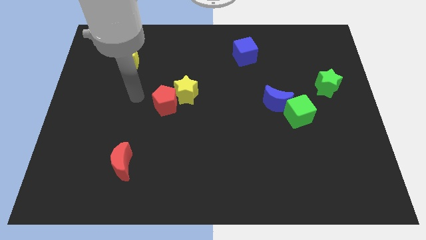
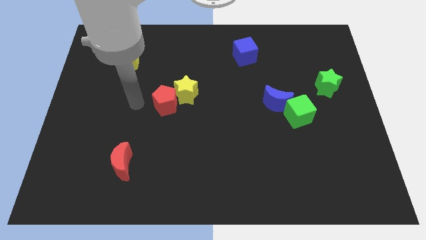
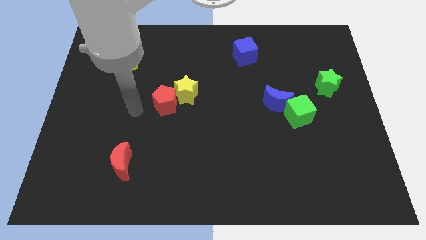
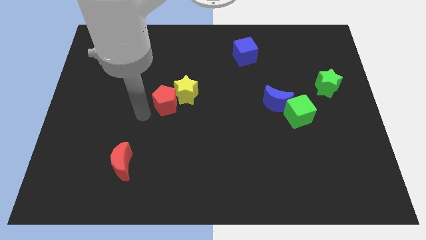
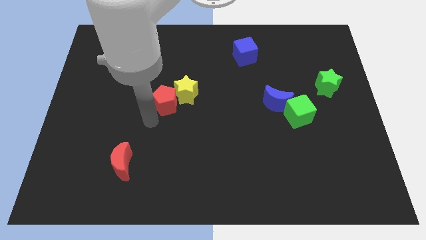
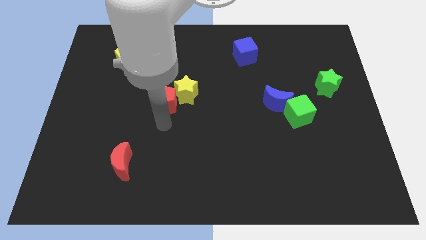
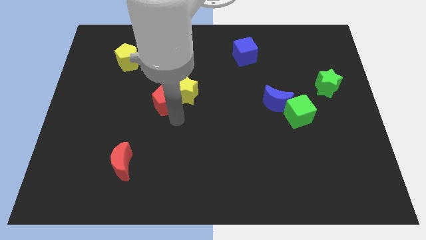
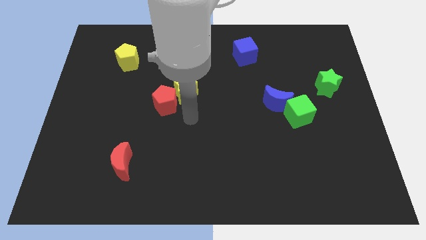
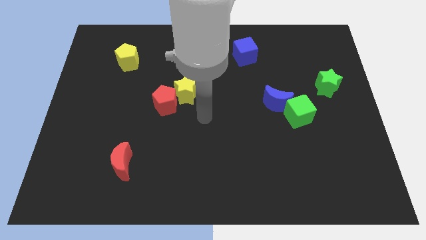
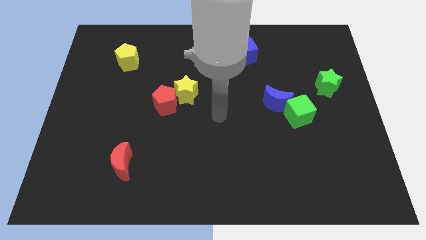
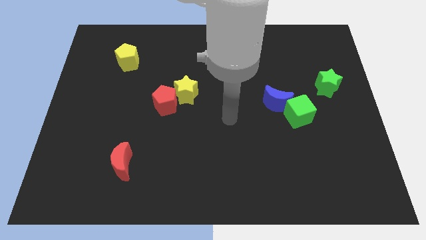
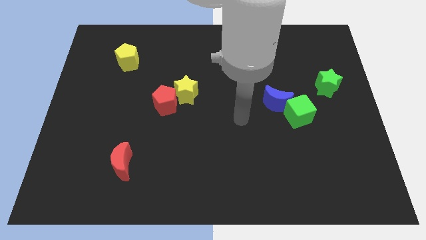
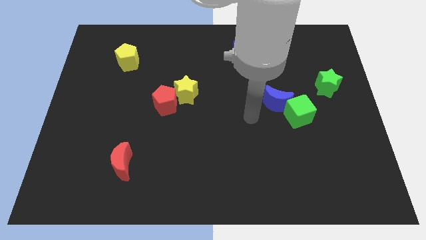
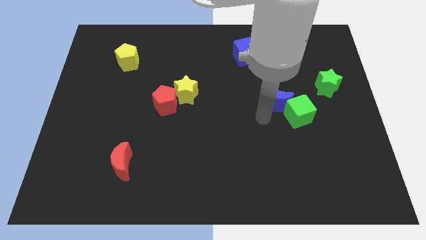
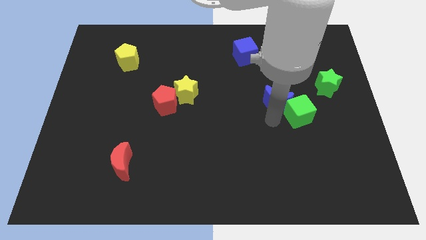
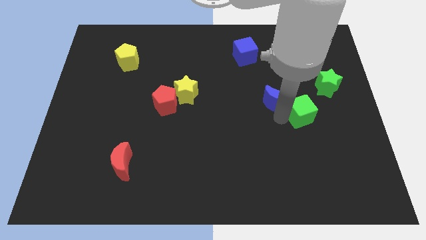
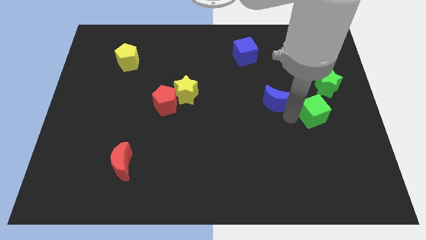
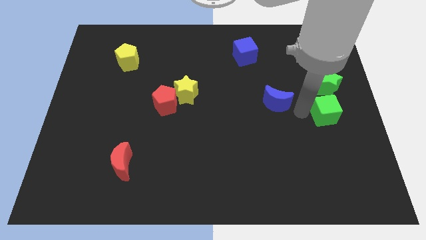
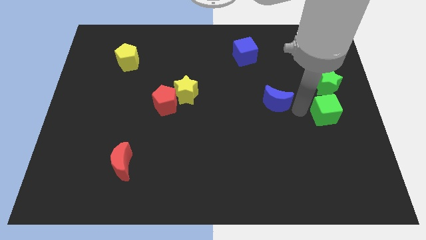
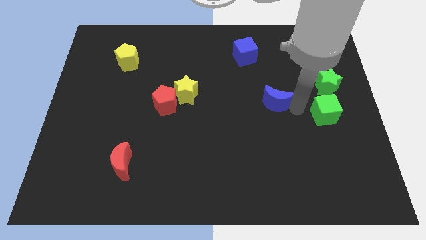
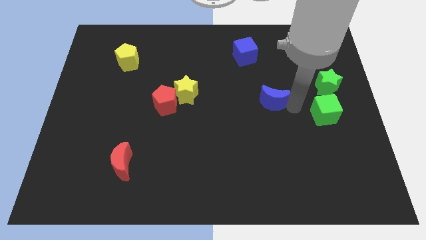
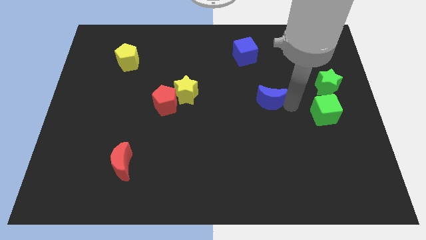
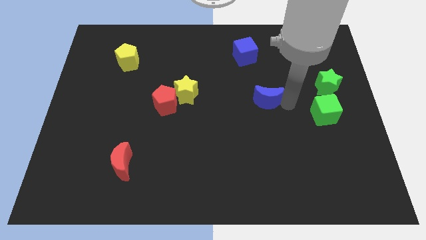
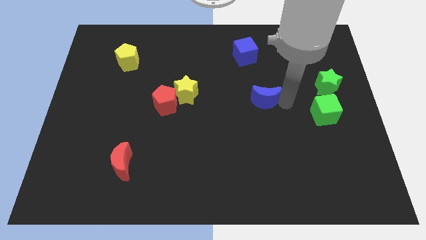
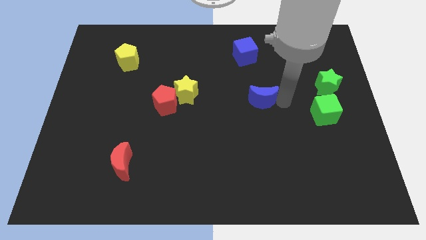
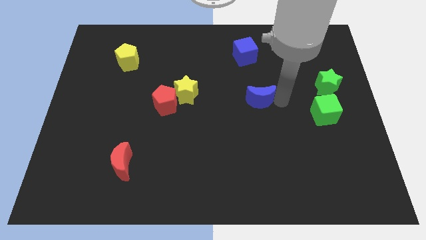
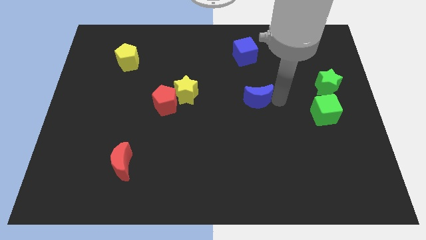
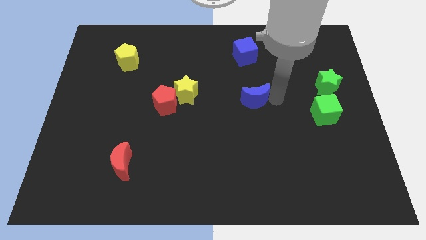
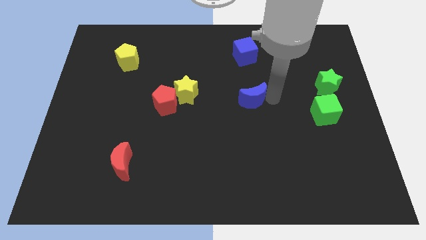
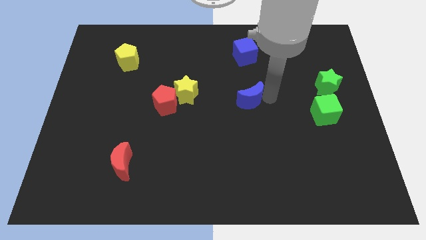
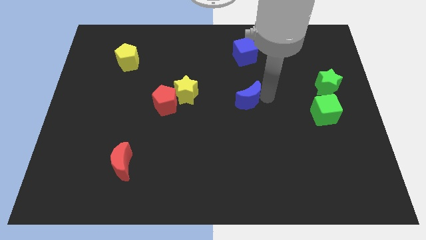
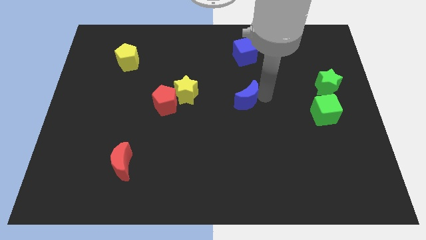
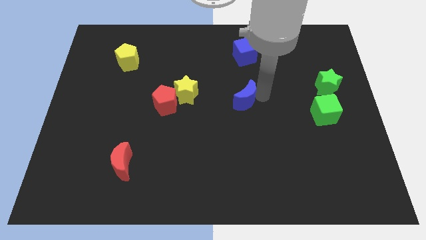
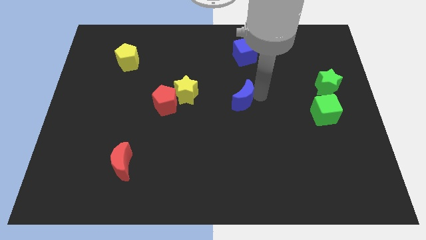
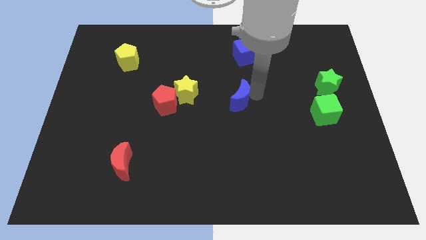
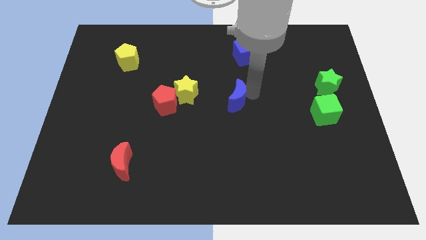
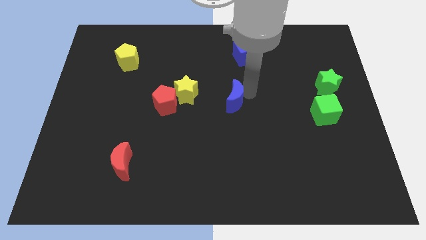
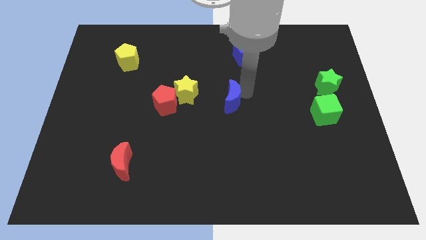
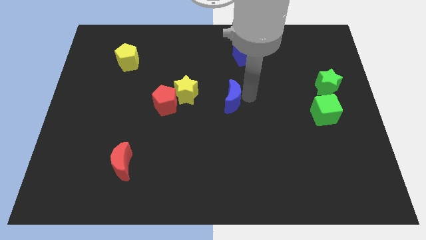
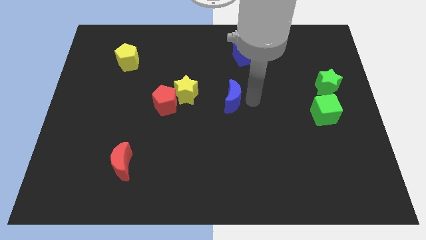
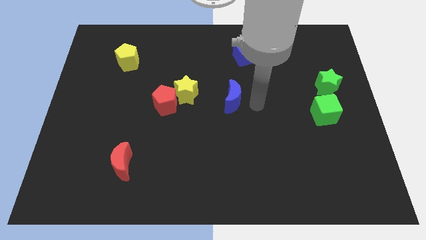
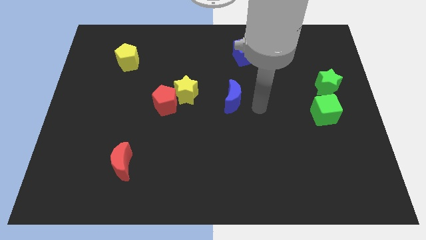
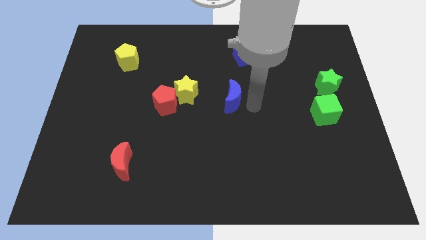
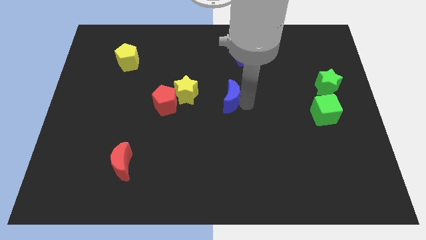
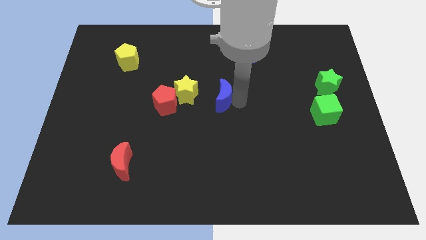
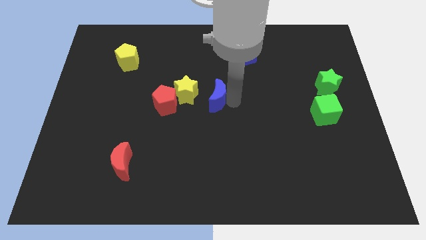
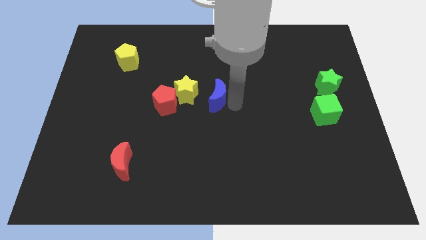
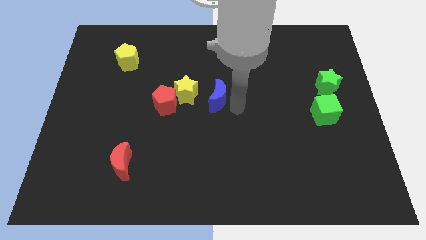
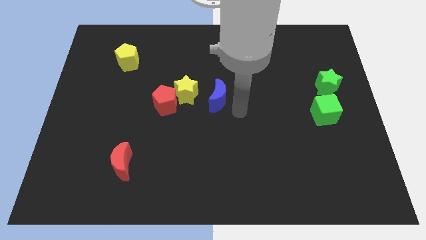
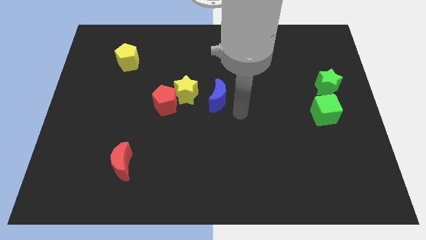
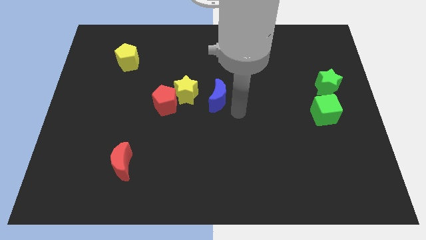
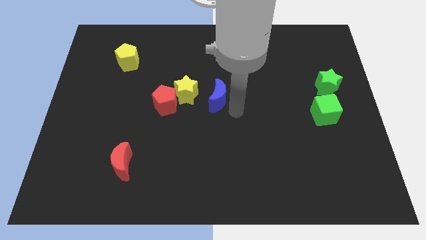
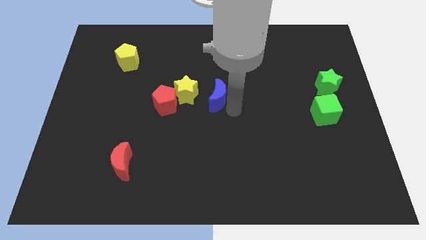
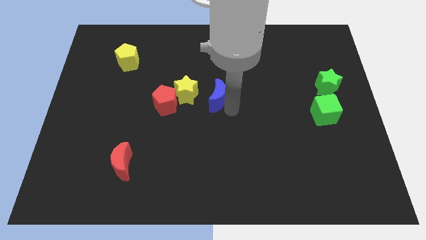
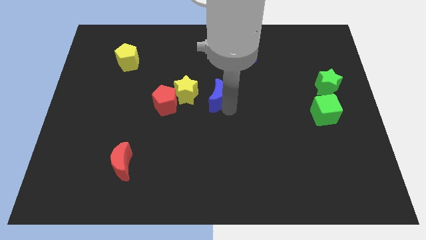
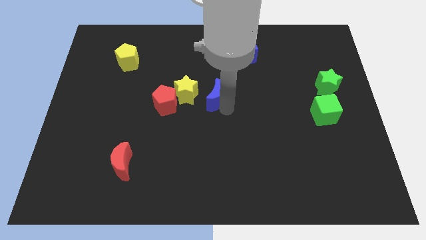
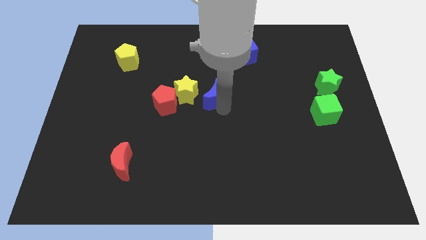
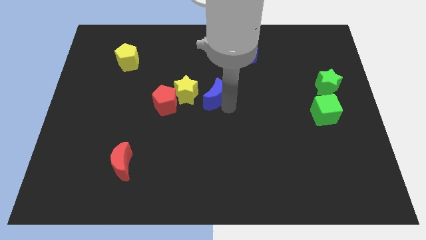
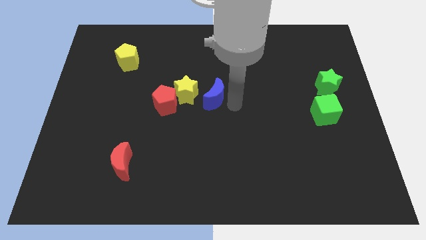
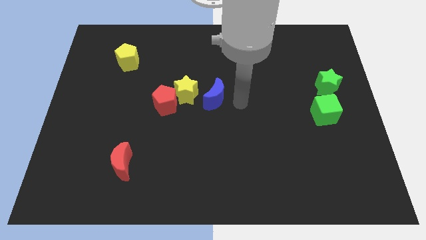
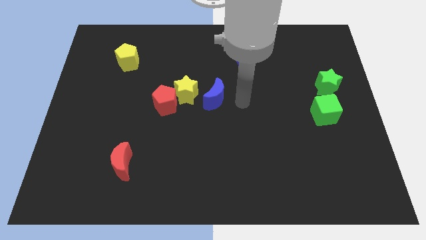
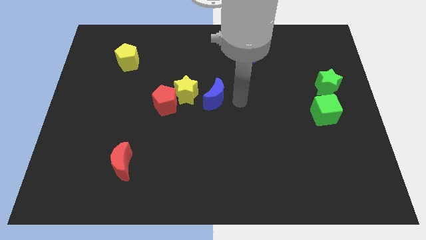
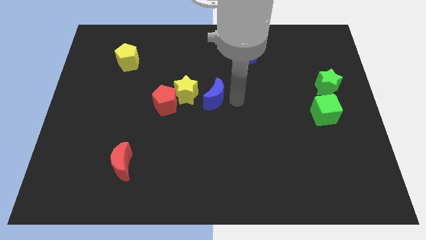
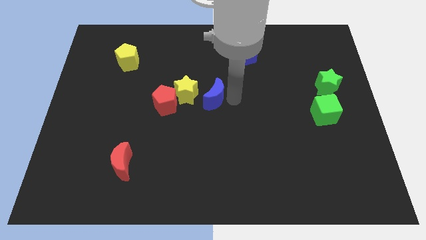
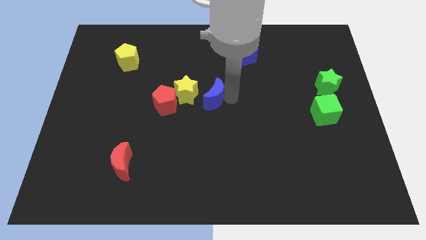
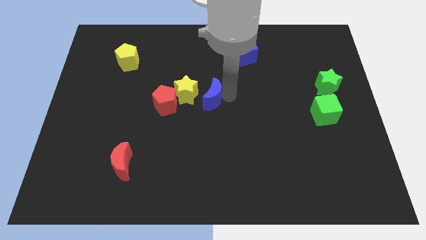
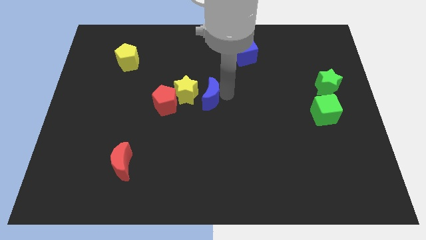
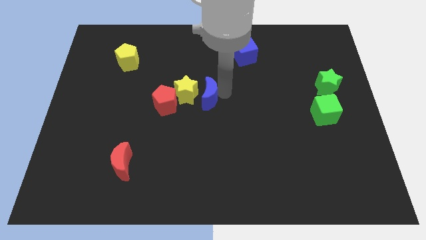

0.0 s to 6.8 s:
push the blue moon to the yellow star

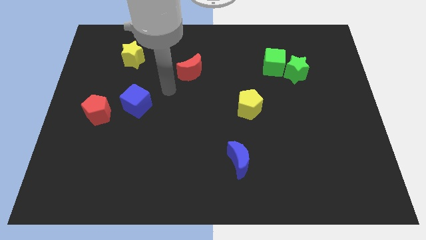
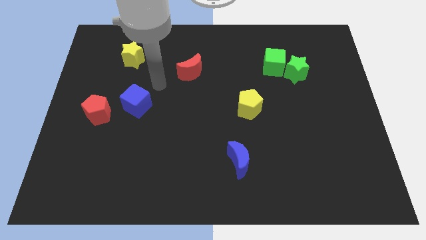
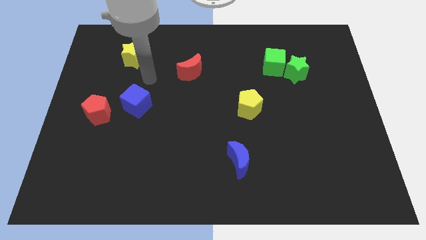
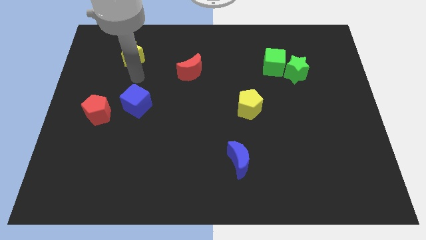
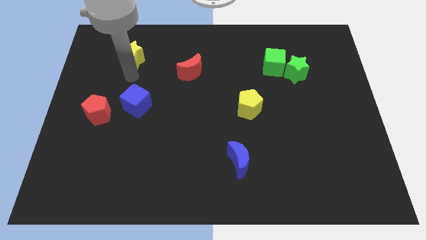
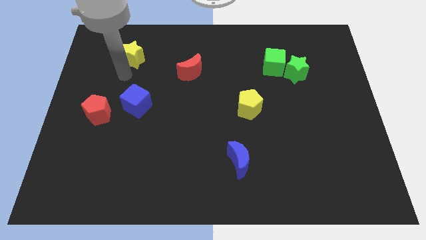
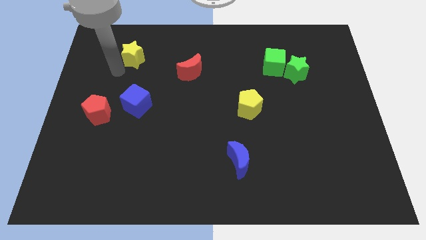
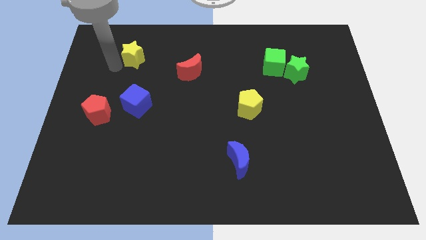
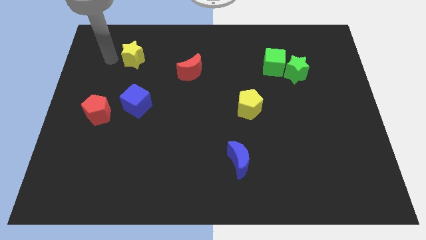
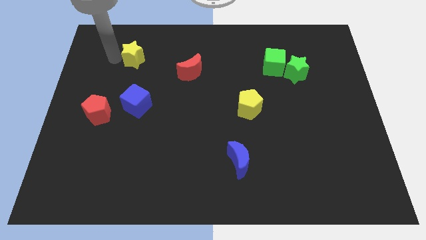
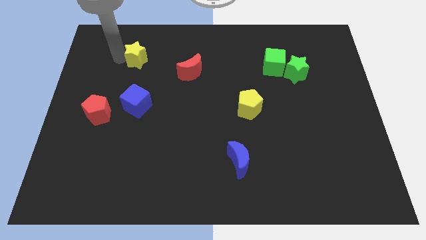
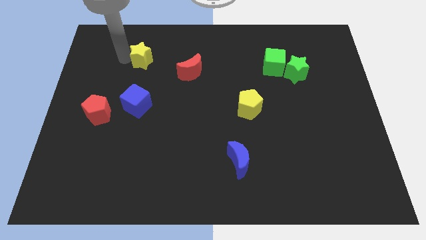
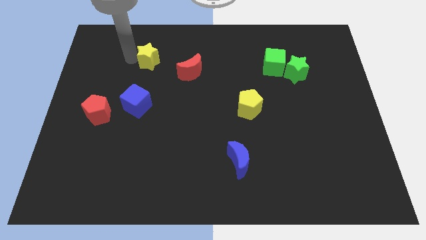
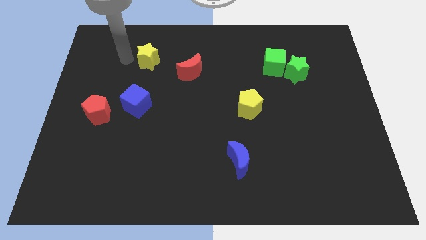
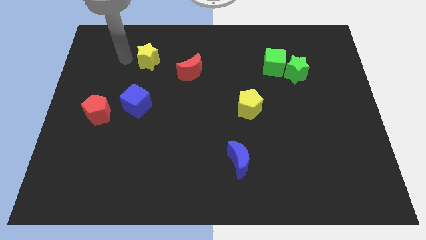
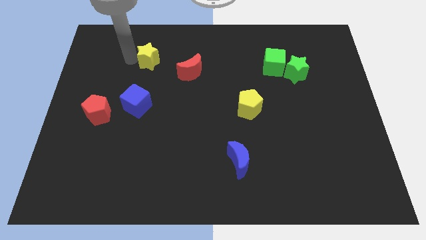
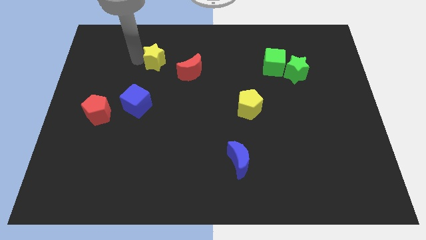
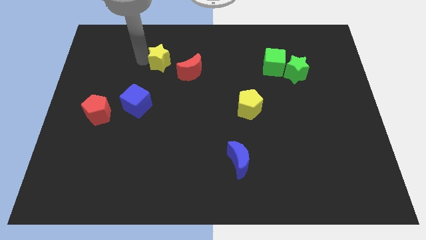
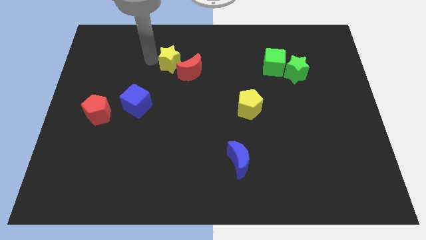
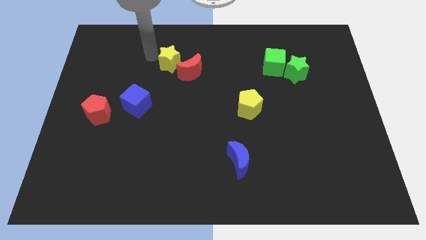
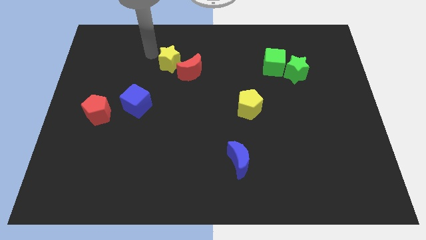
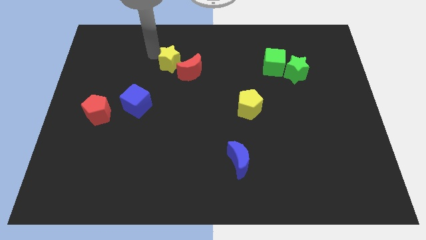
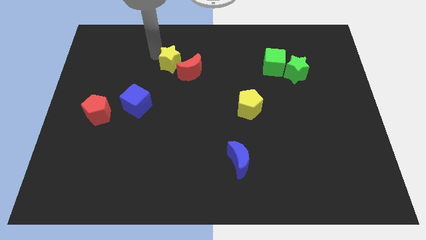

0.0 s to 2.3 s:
push the yellow star towards the red moon
